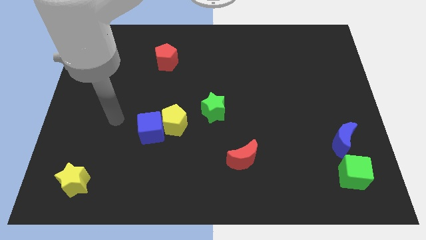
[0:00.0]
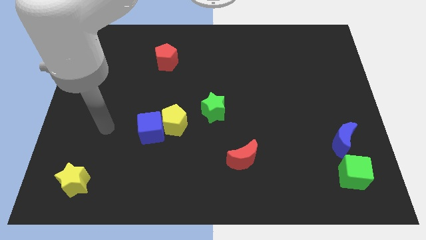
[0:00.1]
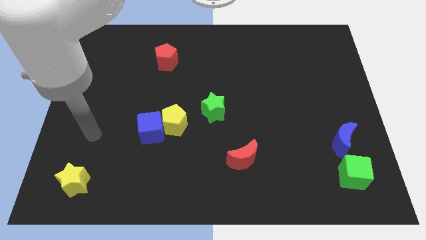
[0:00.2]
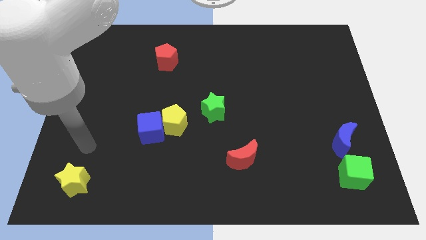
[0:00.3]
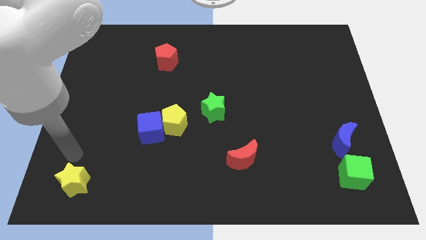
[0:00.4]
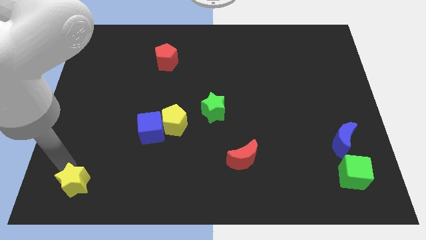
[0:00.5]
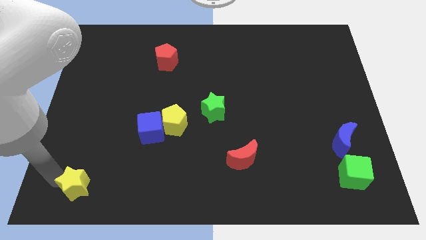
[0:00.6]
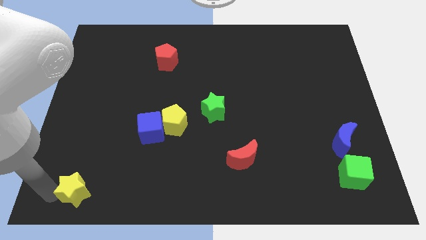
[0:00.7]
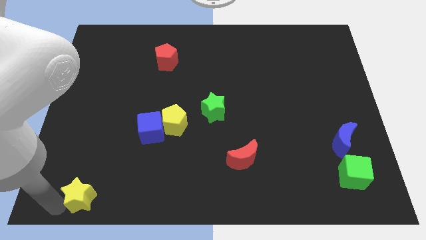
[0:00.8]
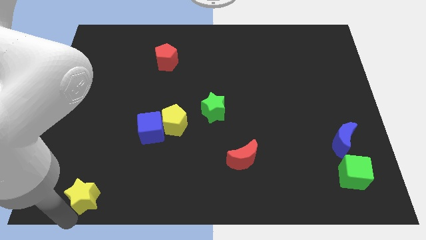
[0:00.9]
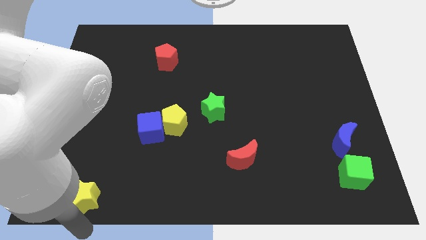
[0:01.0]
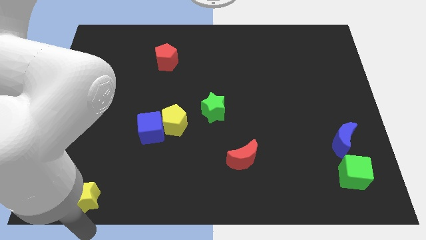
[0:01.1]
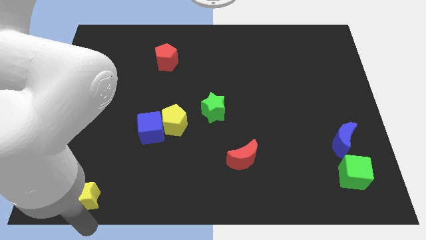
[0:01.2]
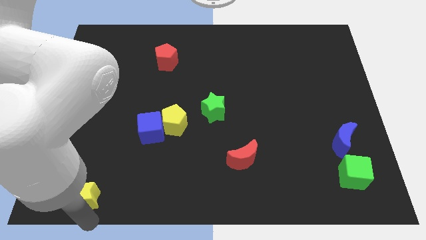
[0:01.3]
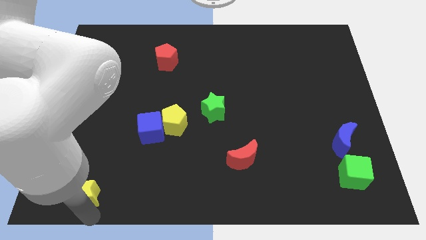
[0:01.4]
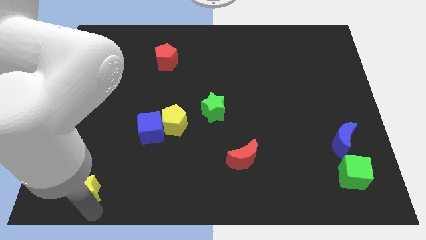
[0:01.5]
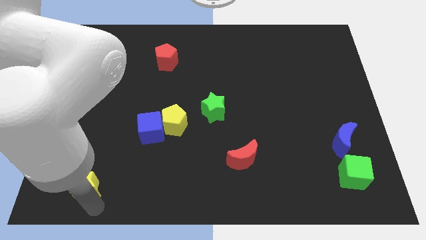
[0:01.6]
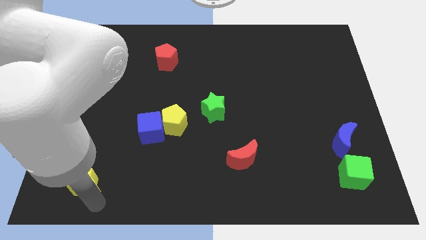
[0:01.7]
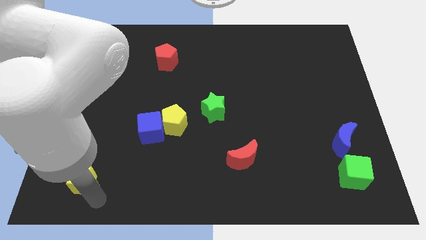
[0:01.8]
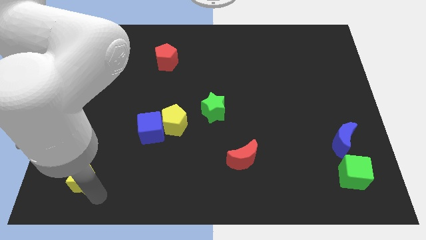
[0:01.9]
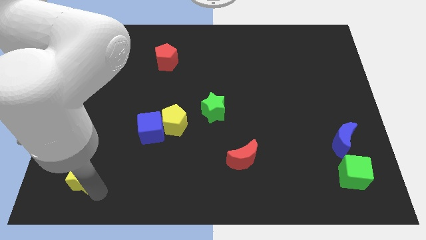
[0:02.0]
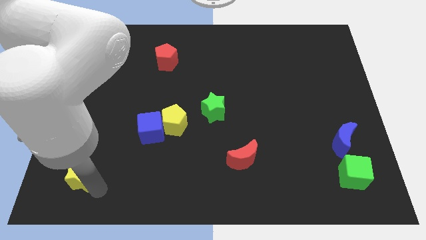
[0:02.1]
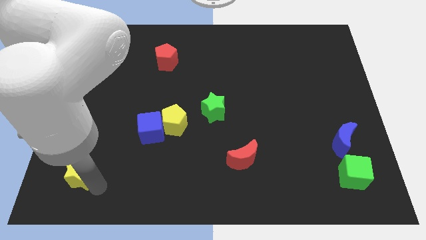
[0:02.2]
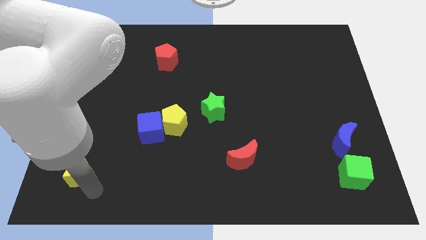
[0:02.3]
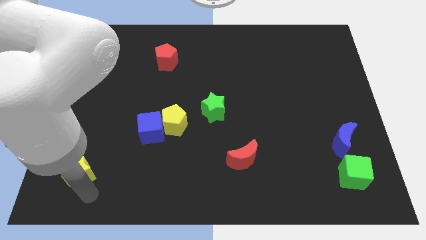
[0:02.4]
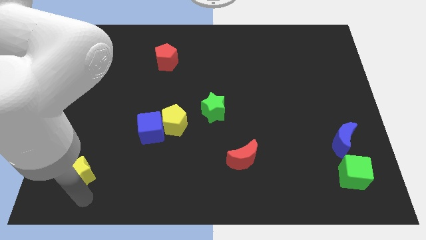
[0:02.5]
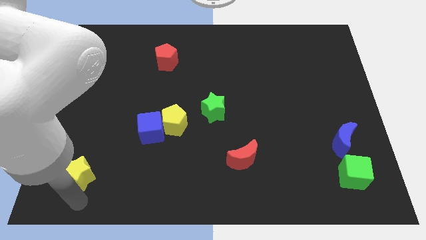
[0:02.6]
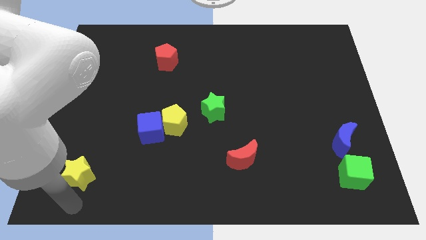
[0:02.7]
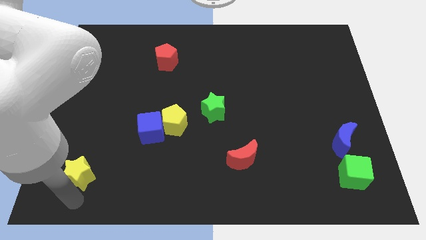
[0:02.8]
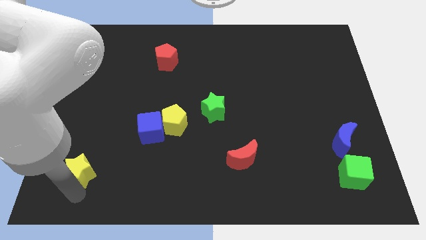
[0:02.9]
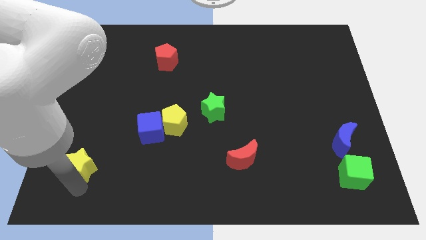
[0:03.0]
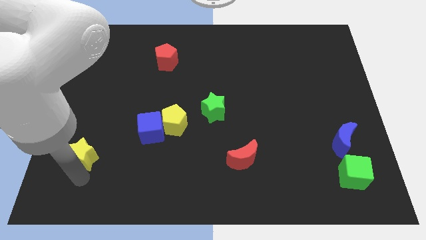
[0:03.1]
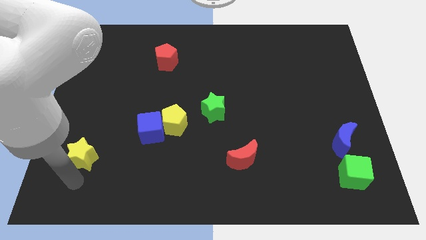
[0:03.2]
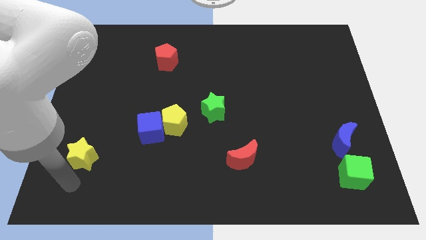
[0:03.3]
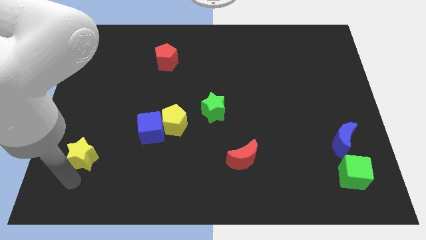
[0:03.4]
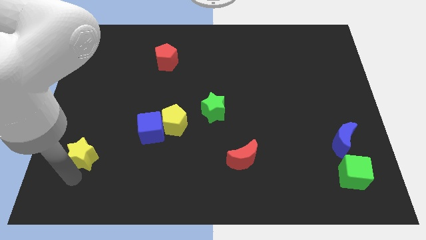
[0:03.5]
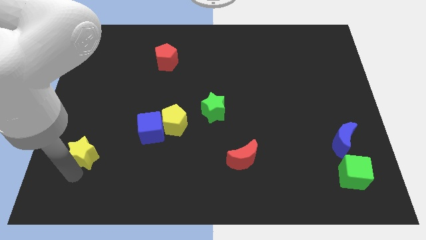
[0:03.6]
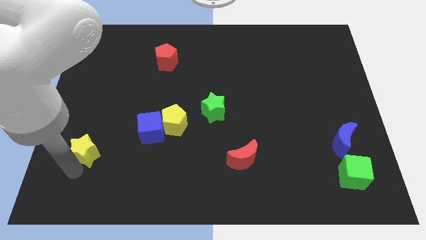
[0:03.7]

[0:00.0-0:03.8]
push the yellow star upwards a little

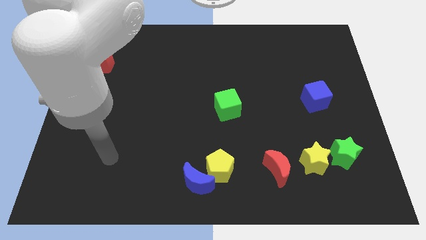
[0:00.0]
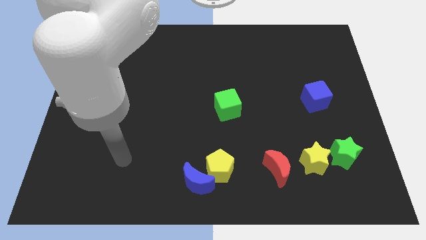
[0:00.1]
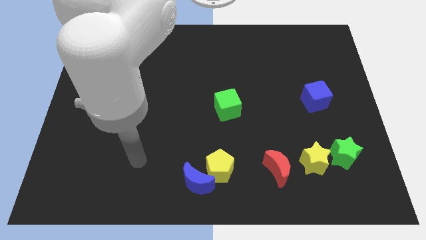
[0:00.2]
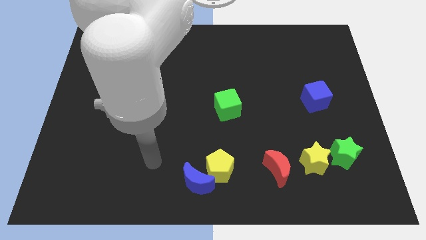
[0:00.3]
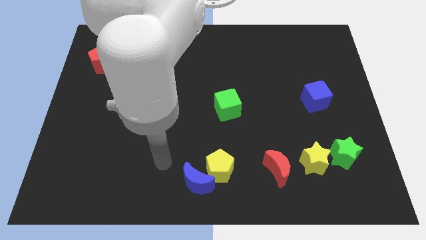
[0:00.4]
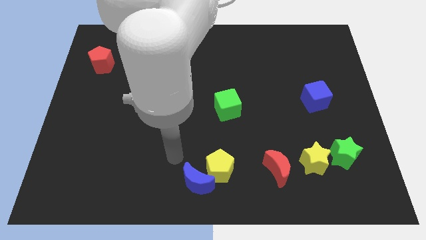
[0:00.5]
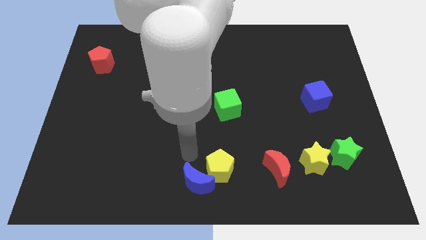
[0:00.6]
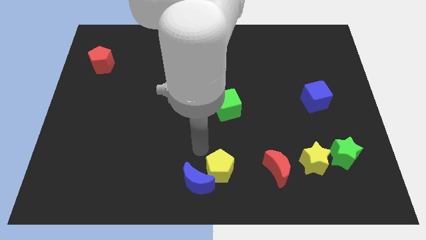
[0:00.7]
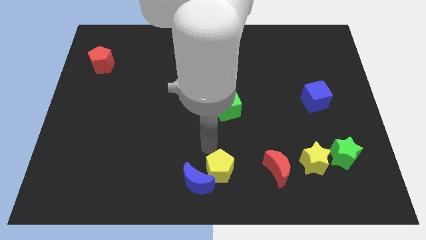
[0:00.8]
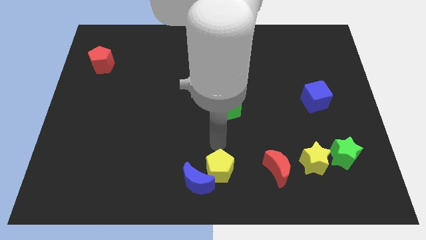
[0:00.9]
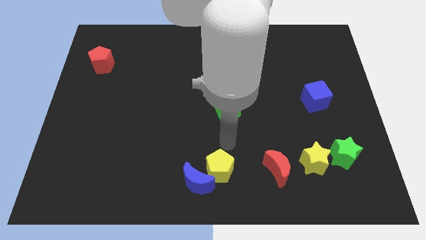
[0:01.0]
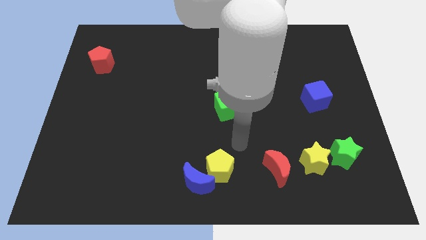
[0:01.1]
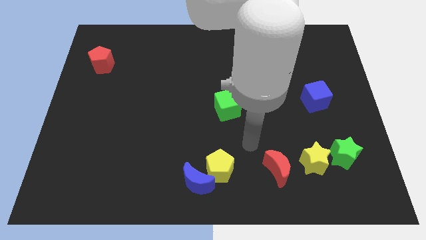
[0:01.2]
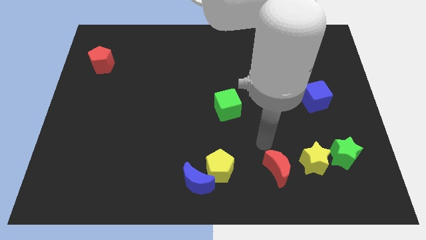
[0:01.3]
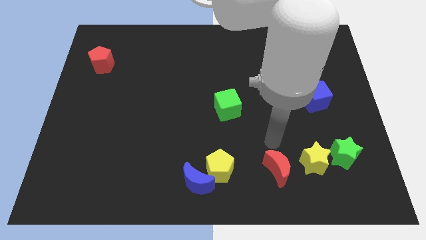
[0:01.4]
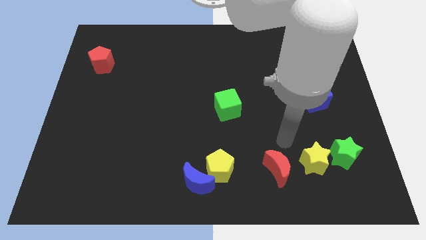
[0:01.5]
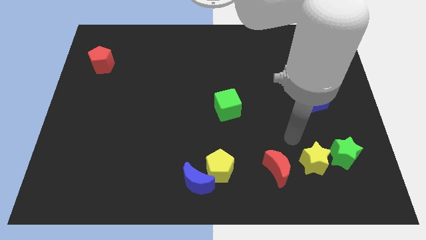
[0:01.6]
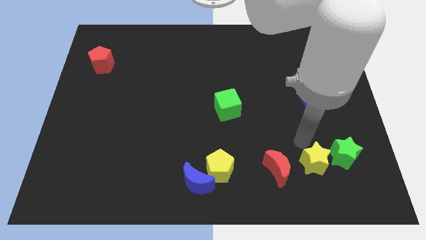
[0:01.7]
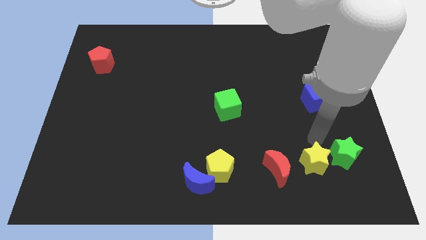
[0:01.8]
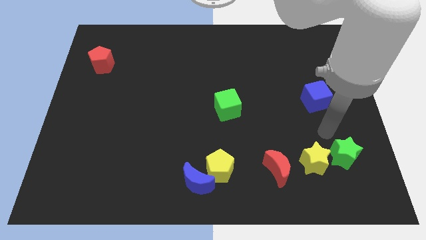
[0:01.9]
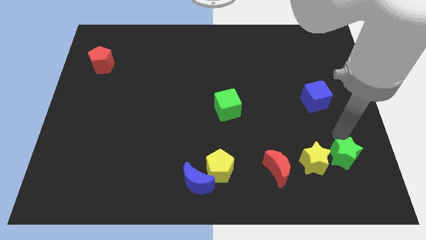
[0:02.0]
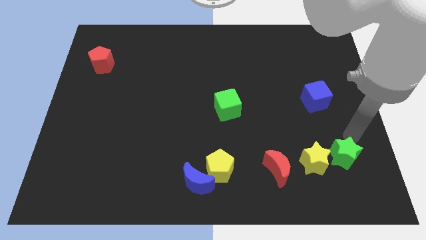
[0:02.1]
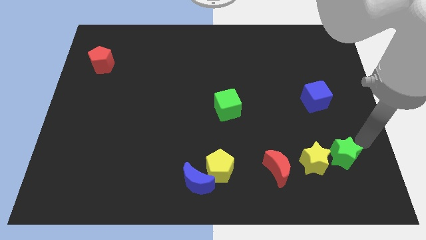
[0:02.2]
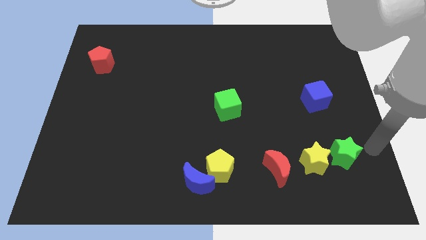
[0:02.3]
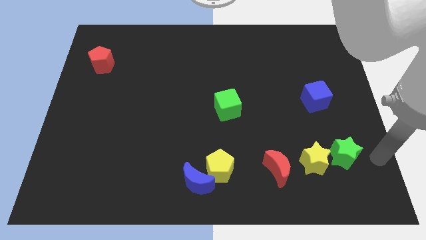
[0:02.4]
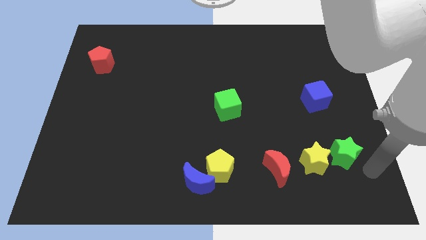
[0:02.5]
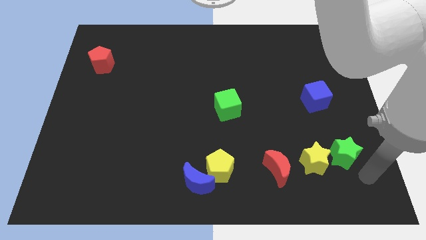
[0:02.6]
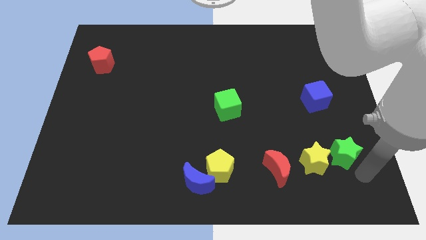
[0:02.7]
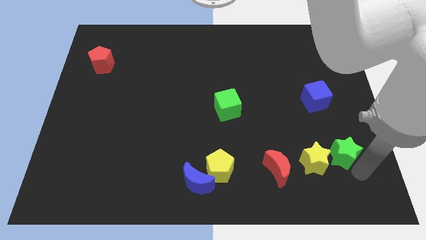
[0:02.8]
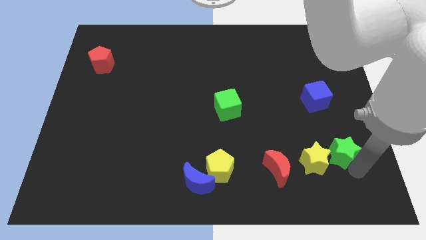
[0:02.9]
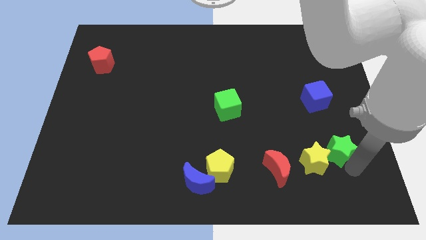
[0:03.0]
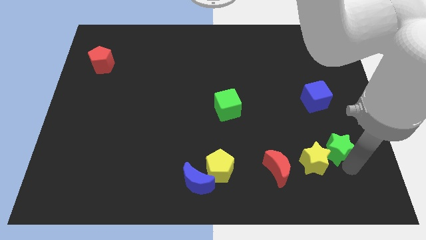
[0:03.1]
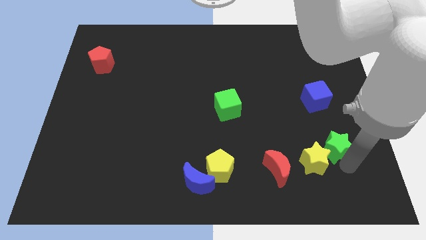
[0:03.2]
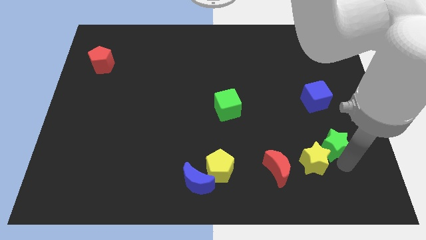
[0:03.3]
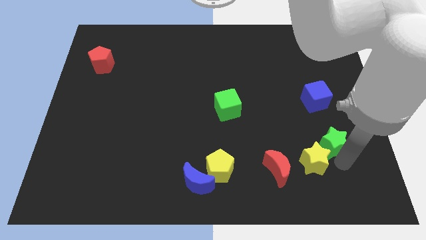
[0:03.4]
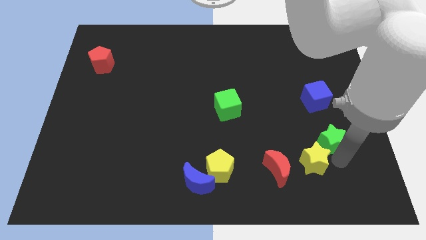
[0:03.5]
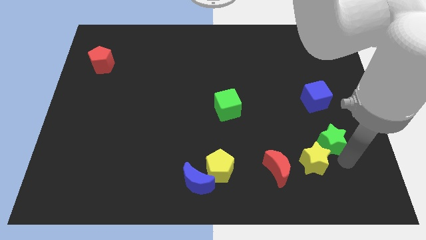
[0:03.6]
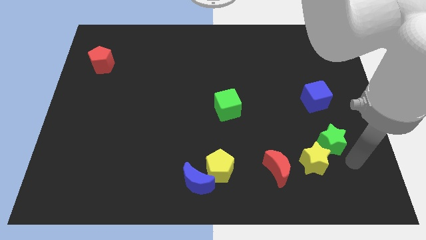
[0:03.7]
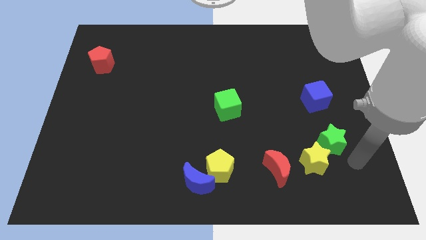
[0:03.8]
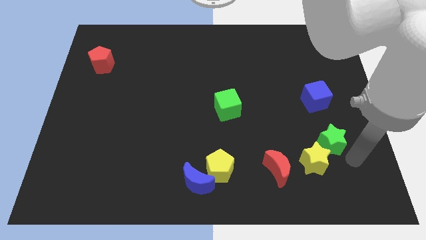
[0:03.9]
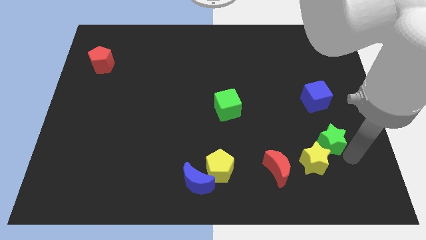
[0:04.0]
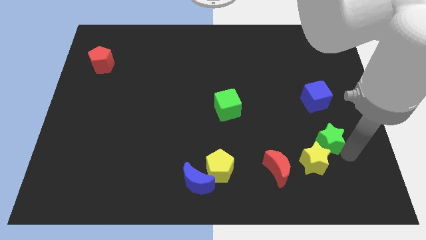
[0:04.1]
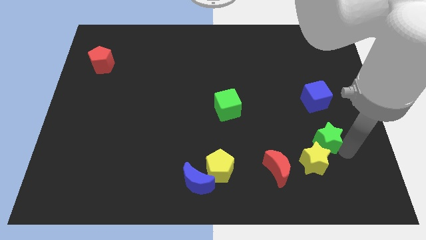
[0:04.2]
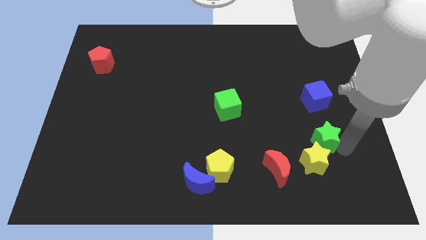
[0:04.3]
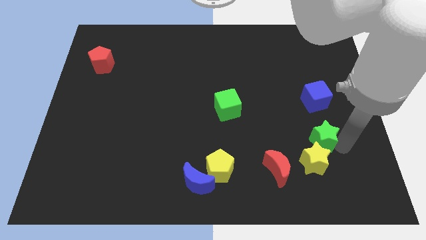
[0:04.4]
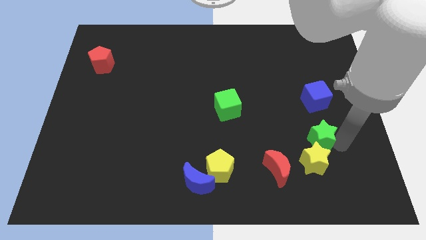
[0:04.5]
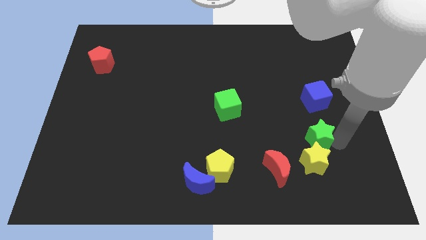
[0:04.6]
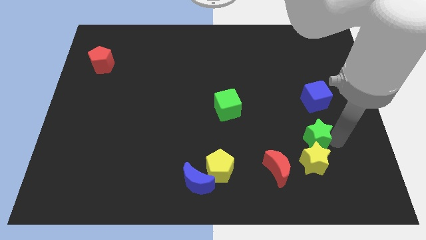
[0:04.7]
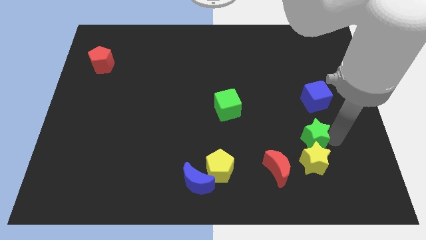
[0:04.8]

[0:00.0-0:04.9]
slightly move the green star up and to the left diagonally
